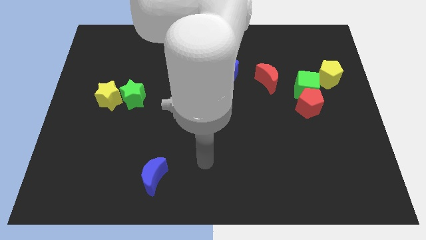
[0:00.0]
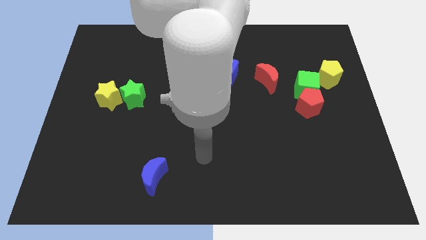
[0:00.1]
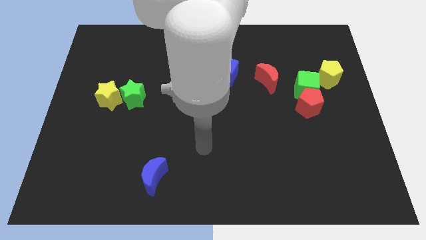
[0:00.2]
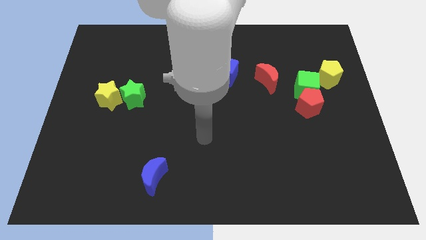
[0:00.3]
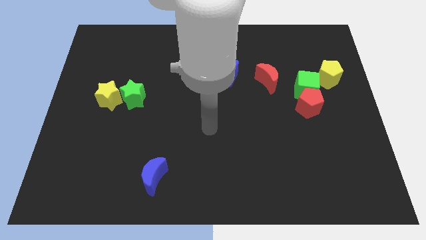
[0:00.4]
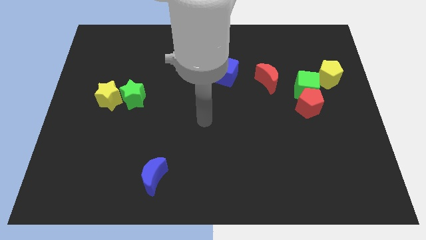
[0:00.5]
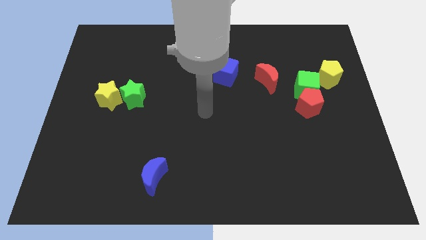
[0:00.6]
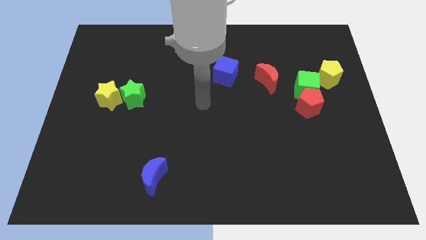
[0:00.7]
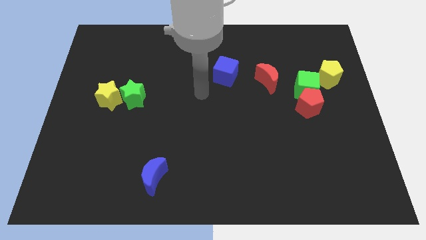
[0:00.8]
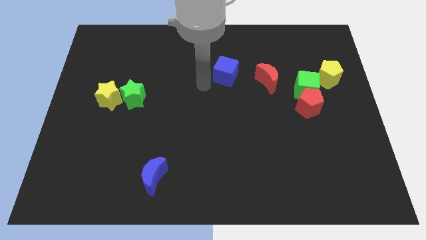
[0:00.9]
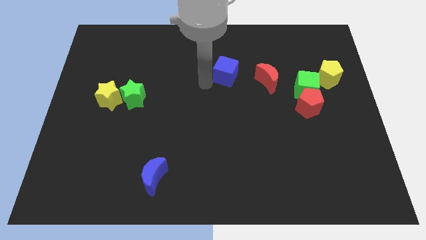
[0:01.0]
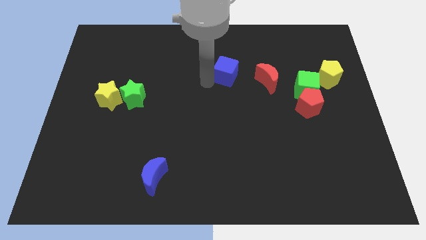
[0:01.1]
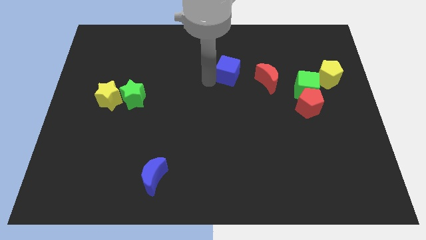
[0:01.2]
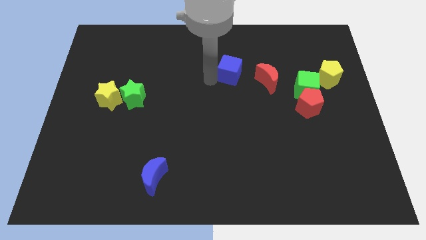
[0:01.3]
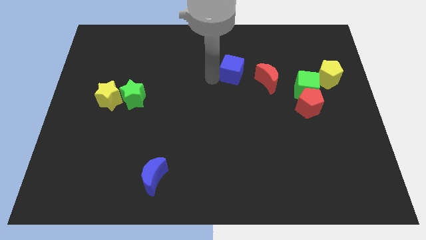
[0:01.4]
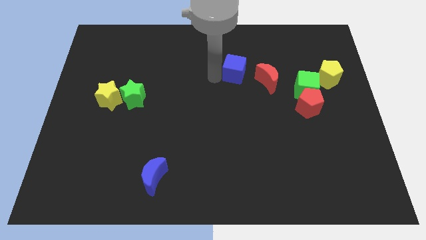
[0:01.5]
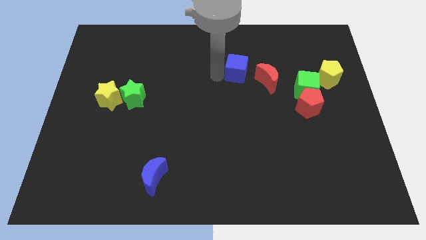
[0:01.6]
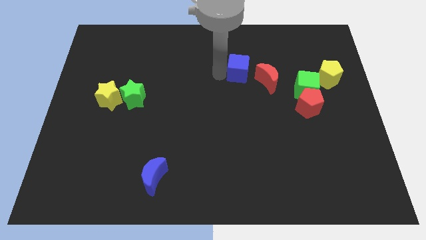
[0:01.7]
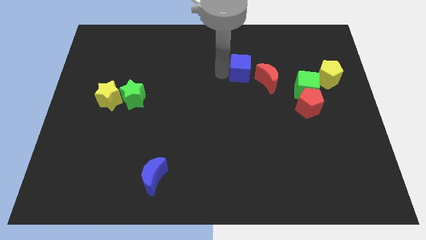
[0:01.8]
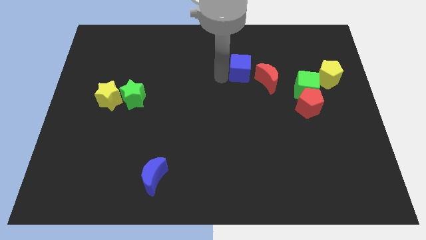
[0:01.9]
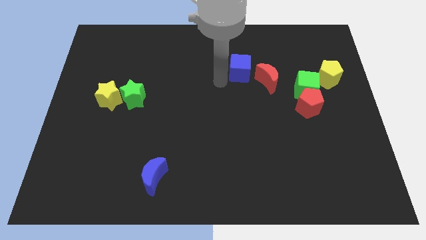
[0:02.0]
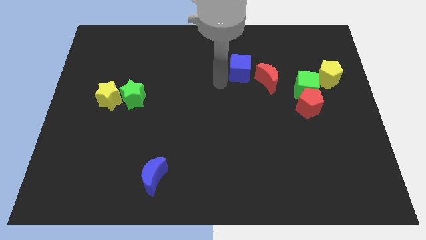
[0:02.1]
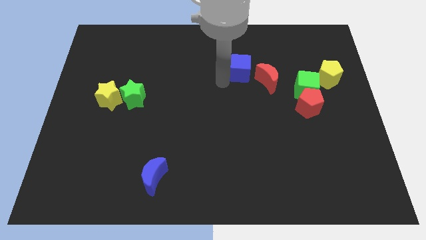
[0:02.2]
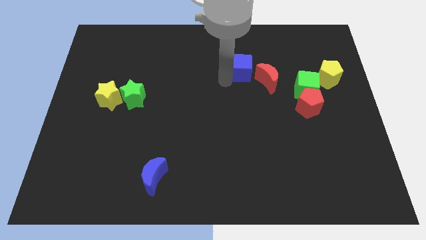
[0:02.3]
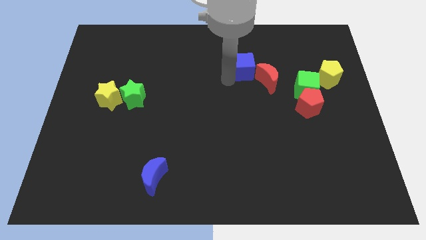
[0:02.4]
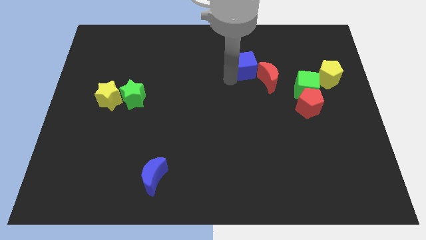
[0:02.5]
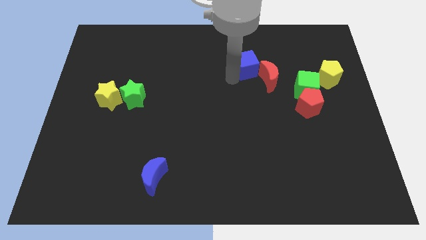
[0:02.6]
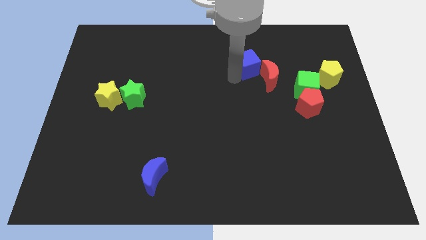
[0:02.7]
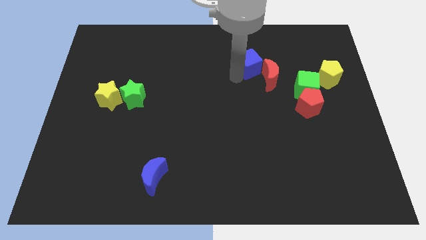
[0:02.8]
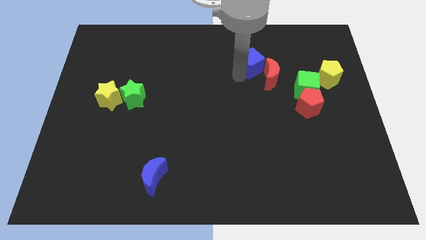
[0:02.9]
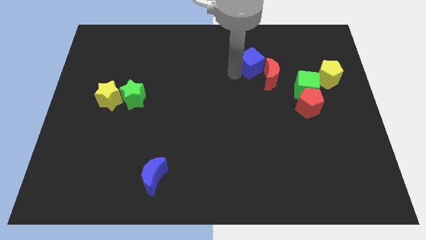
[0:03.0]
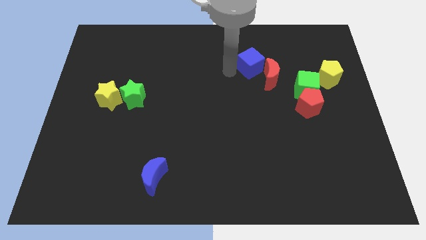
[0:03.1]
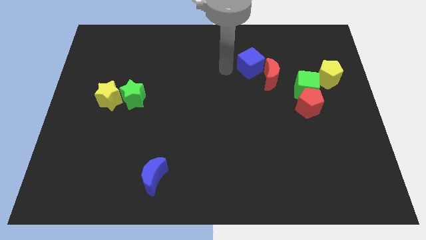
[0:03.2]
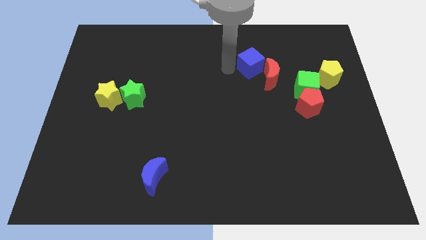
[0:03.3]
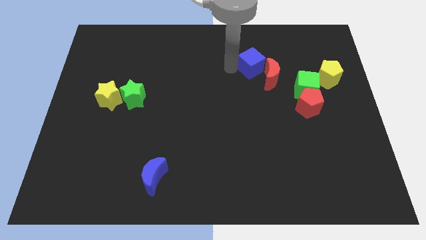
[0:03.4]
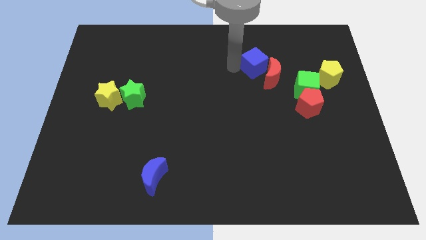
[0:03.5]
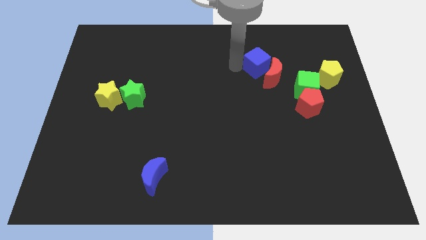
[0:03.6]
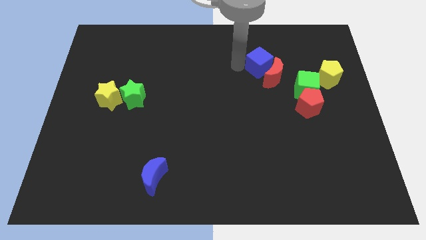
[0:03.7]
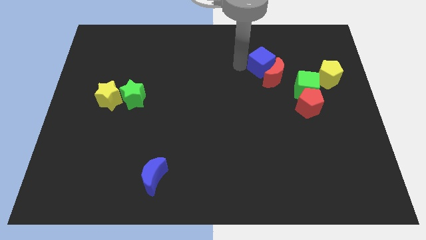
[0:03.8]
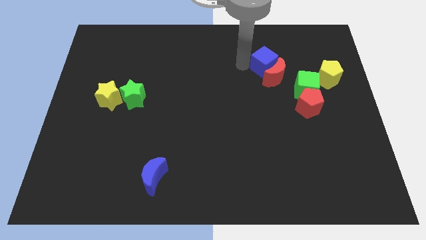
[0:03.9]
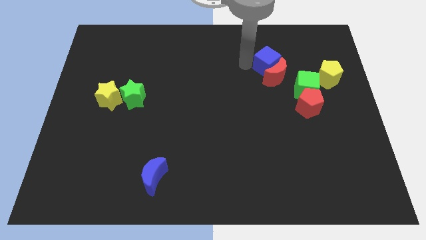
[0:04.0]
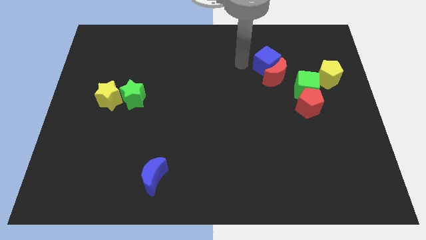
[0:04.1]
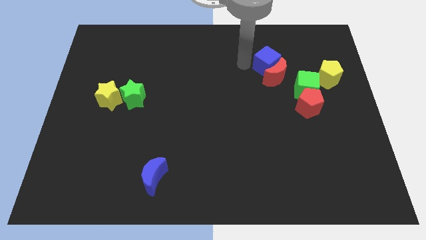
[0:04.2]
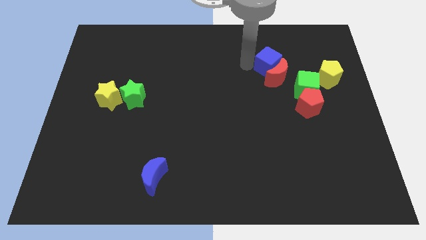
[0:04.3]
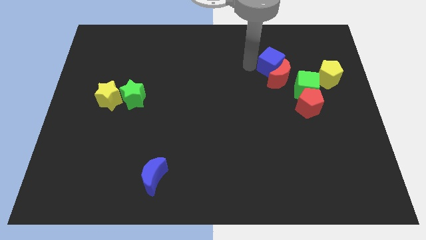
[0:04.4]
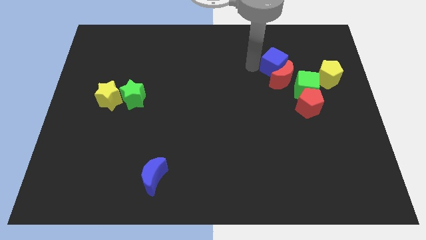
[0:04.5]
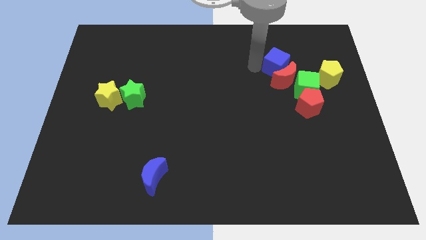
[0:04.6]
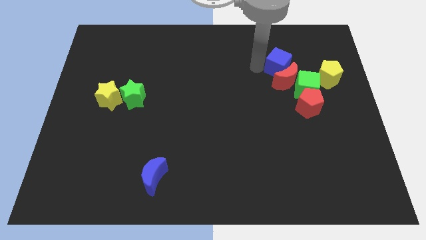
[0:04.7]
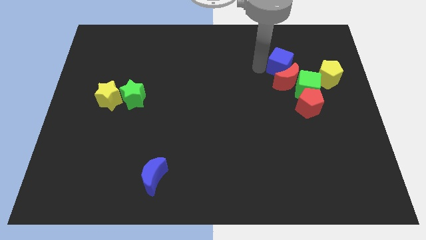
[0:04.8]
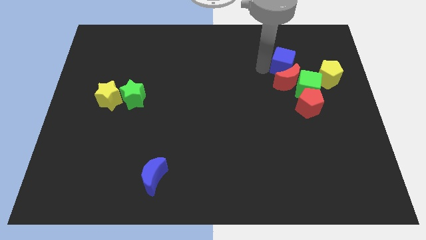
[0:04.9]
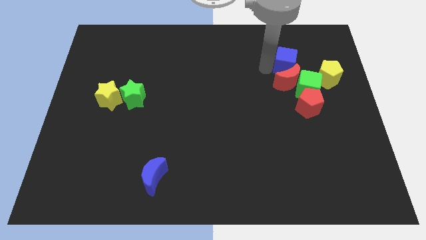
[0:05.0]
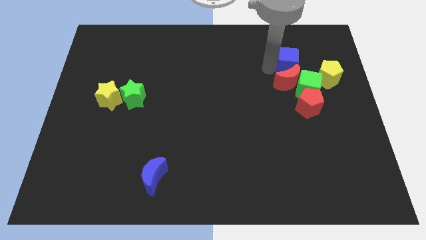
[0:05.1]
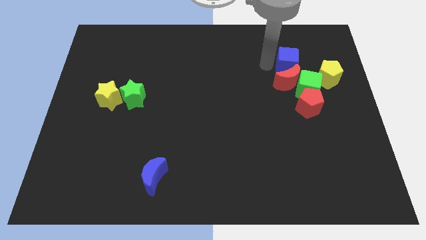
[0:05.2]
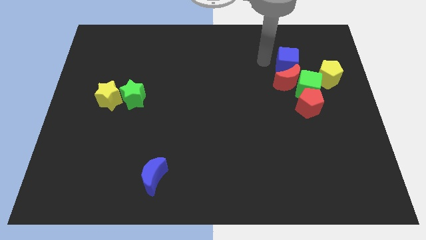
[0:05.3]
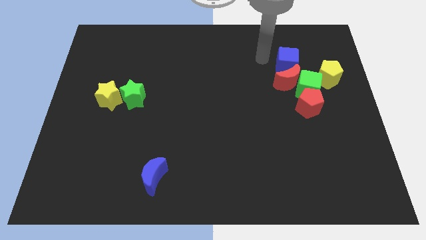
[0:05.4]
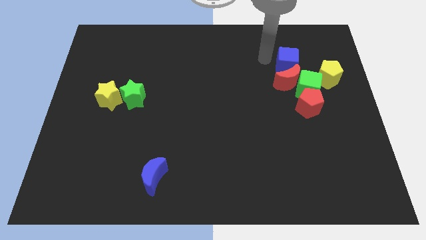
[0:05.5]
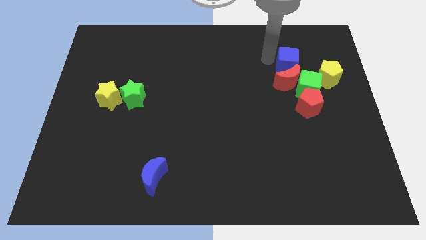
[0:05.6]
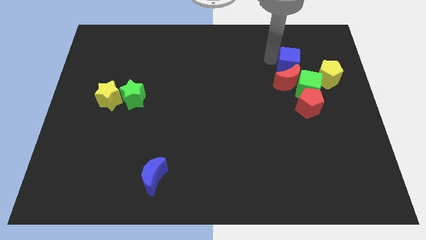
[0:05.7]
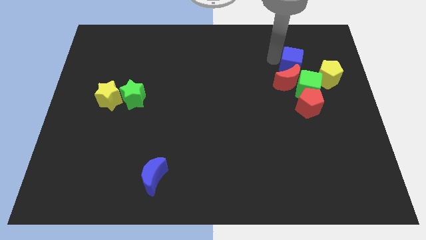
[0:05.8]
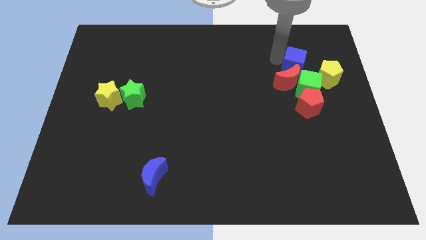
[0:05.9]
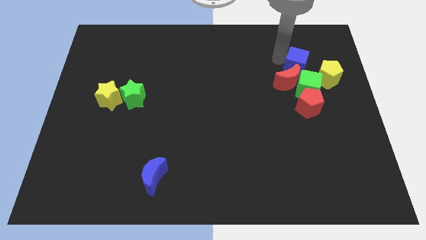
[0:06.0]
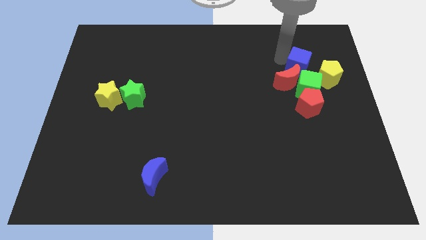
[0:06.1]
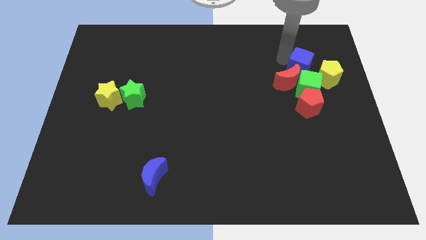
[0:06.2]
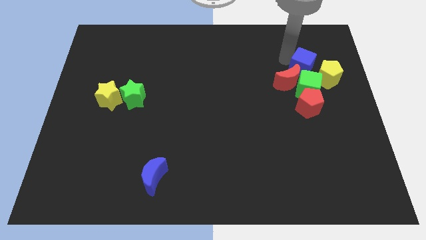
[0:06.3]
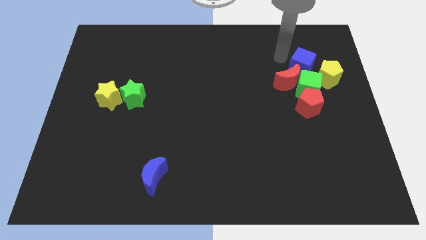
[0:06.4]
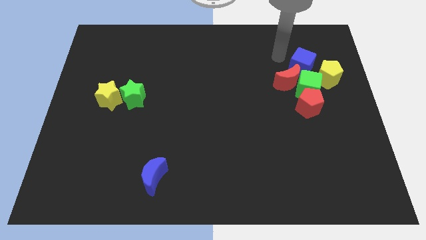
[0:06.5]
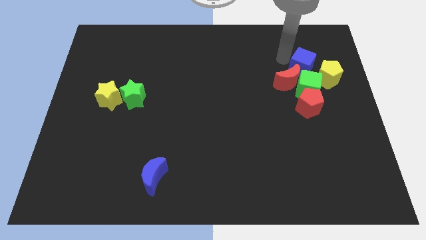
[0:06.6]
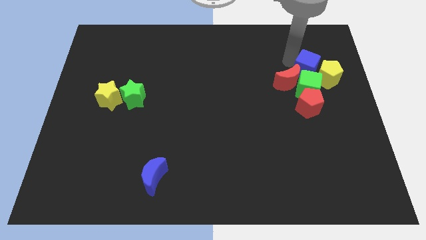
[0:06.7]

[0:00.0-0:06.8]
push the blue cube close to the yellow pentagon
